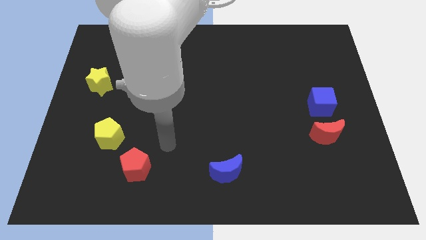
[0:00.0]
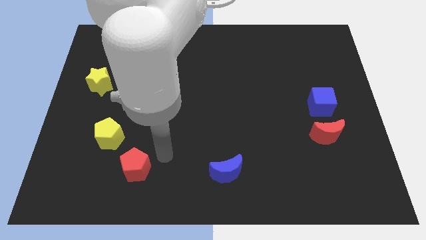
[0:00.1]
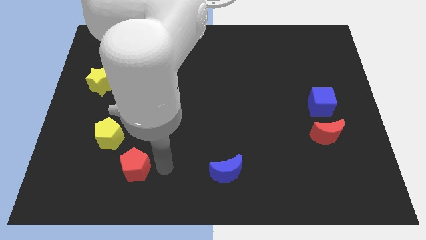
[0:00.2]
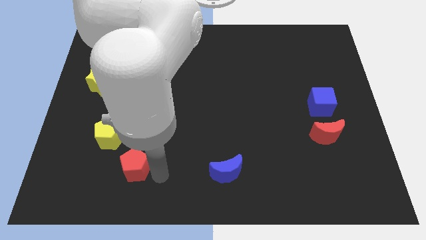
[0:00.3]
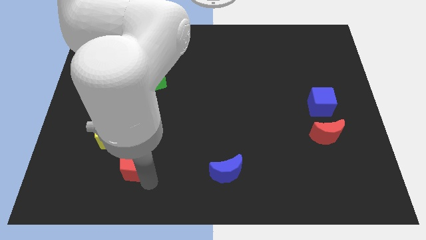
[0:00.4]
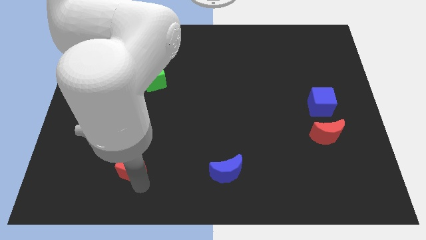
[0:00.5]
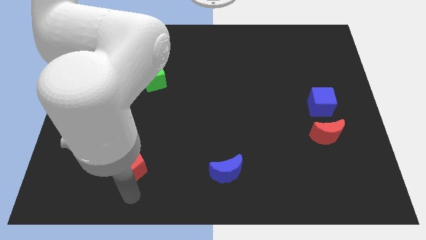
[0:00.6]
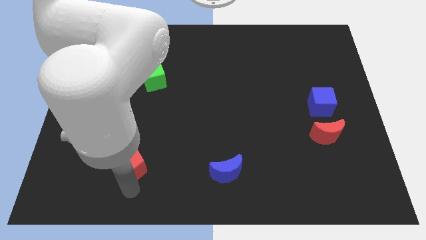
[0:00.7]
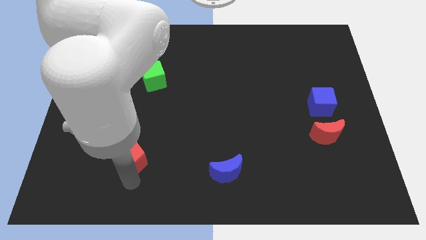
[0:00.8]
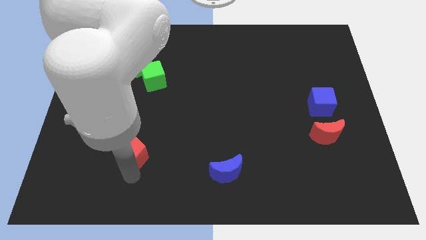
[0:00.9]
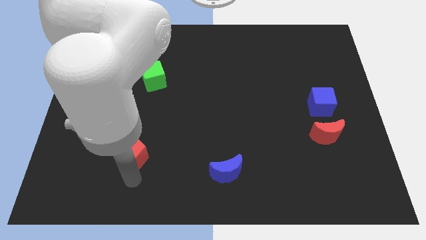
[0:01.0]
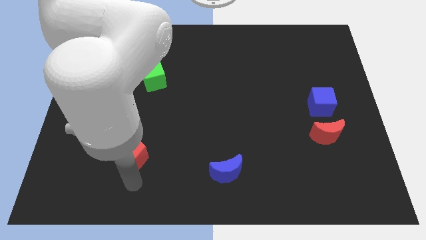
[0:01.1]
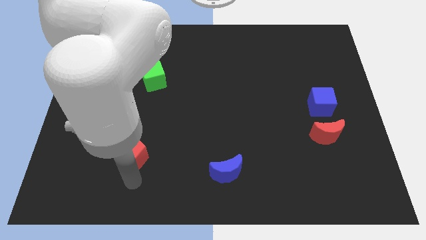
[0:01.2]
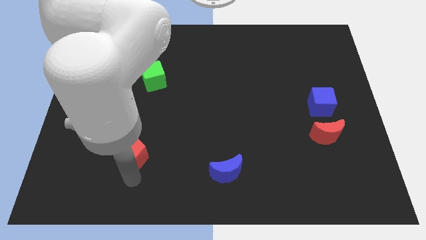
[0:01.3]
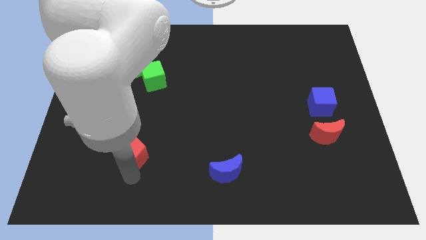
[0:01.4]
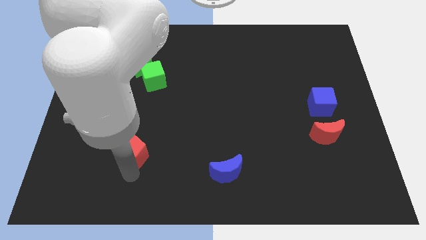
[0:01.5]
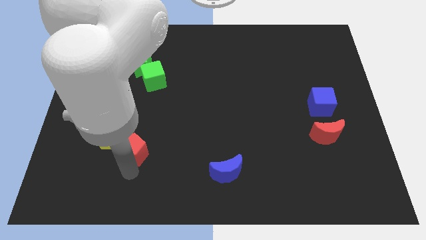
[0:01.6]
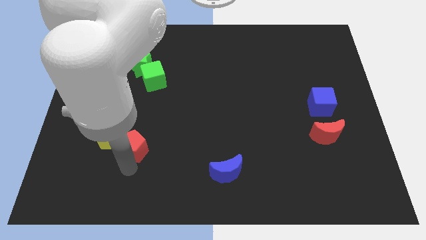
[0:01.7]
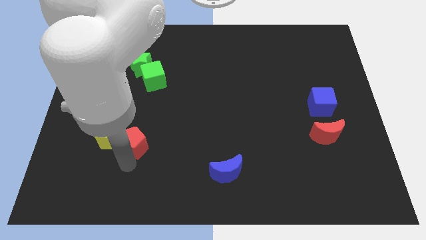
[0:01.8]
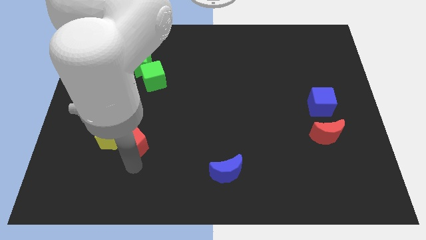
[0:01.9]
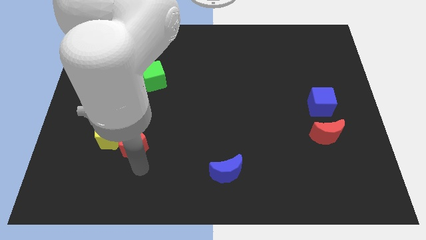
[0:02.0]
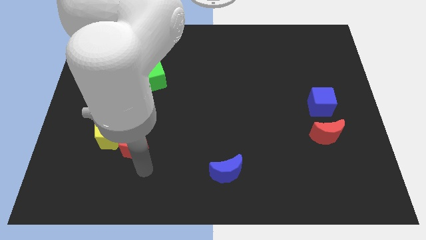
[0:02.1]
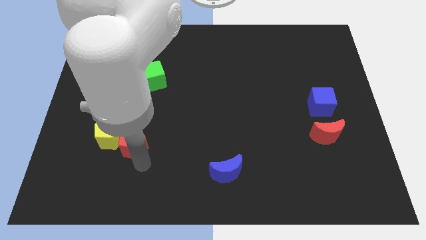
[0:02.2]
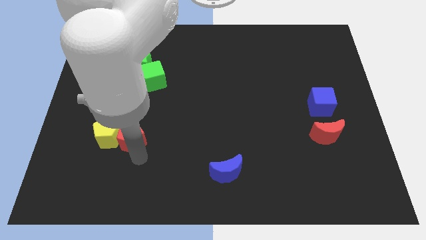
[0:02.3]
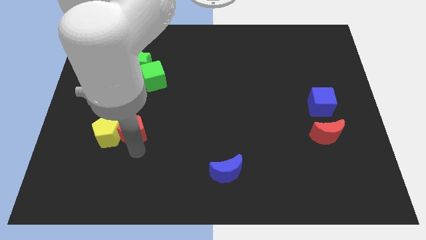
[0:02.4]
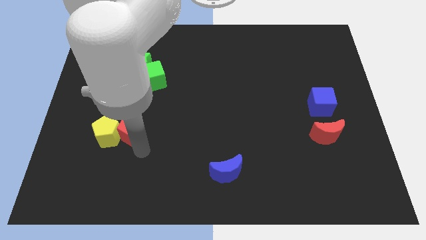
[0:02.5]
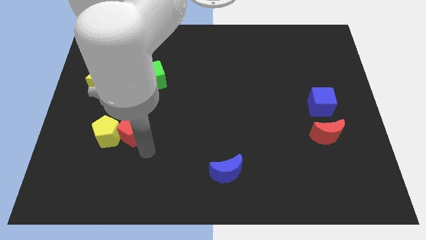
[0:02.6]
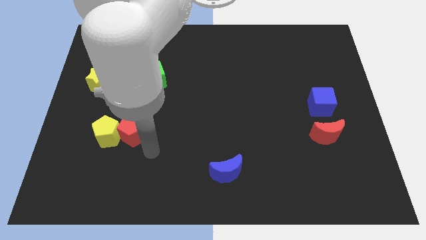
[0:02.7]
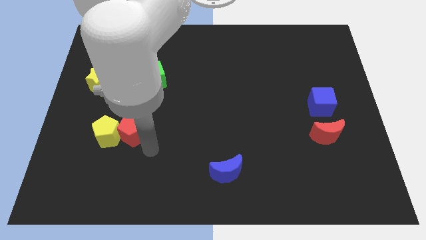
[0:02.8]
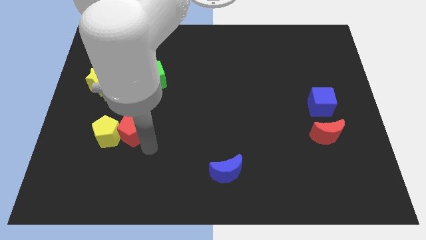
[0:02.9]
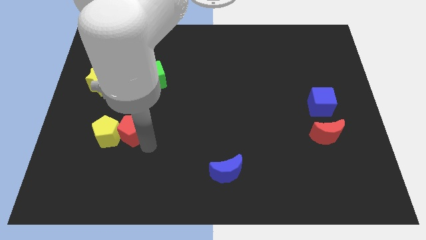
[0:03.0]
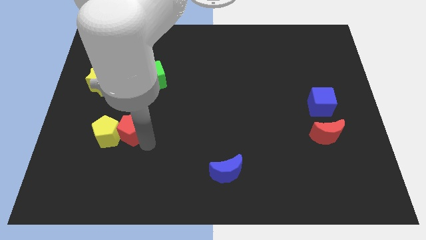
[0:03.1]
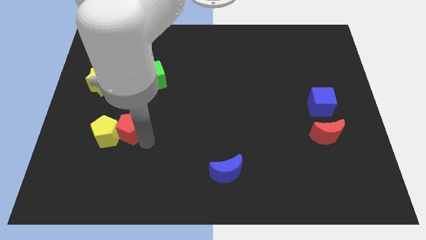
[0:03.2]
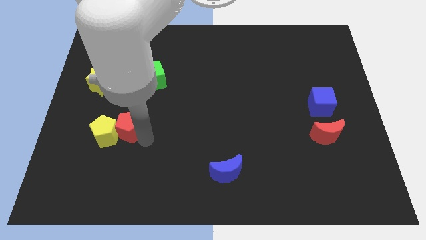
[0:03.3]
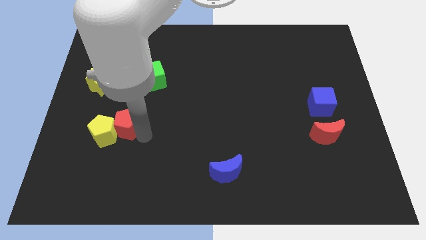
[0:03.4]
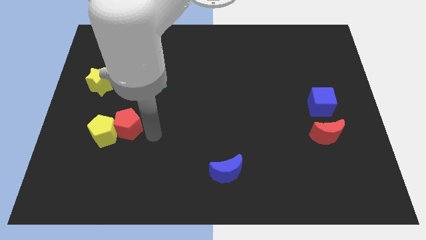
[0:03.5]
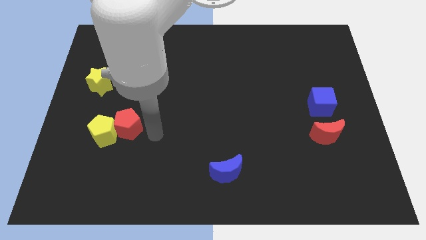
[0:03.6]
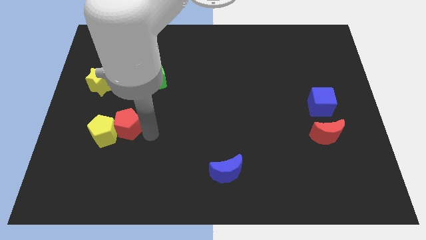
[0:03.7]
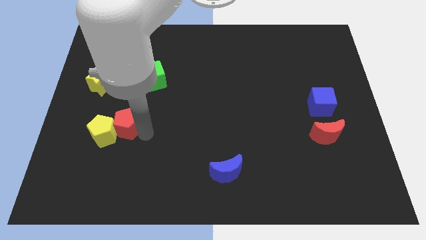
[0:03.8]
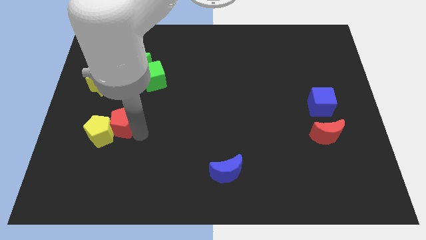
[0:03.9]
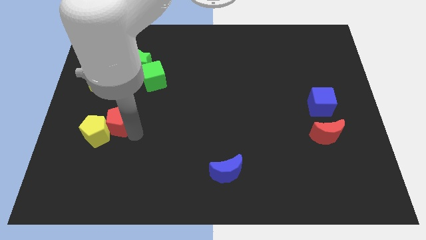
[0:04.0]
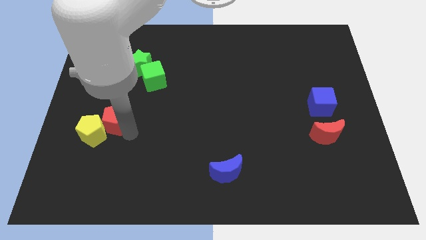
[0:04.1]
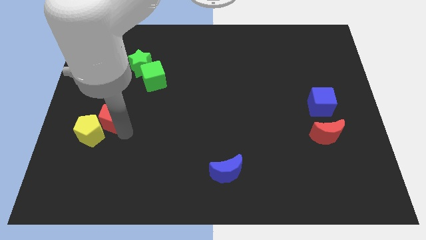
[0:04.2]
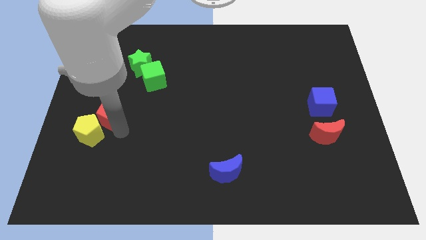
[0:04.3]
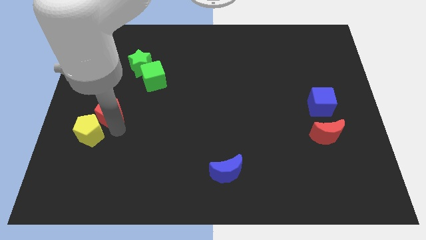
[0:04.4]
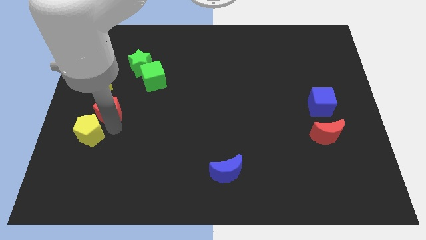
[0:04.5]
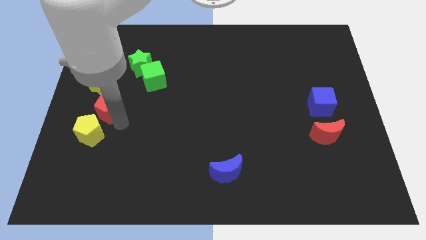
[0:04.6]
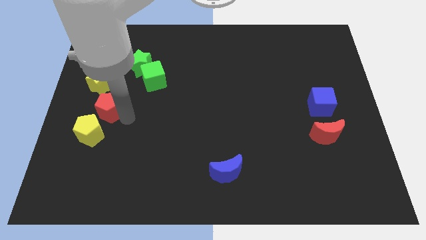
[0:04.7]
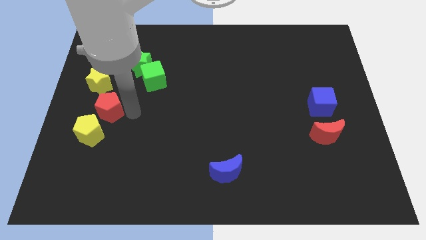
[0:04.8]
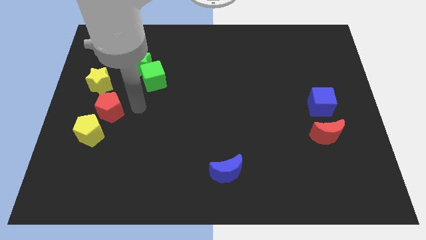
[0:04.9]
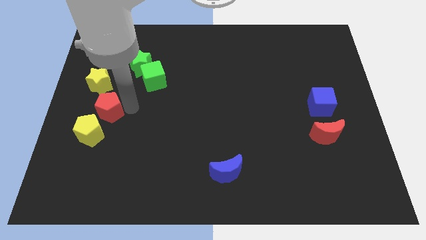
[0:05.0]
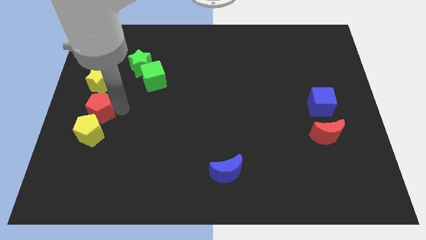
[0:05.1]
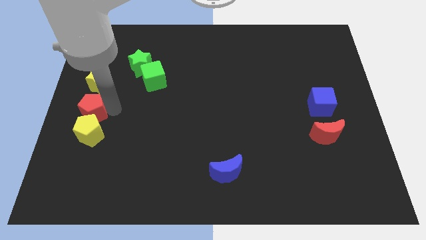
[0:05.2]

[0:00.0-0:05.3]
slide the red pentagon to the top left side of the yellow pentagon

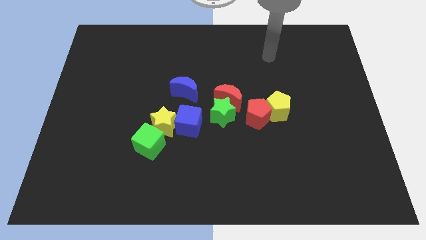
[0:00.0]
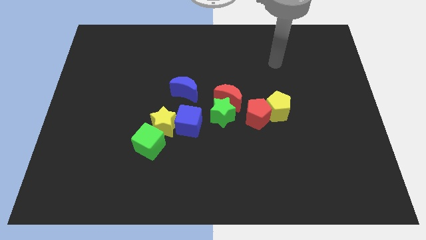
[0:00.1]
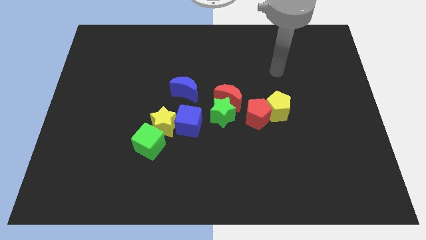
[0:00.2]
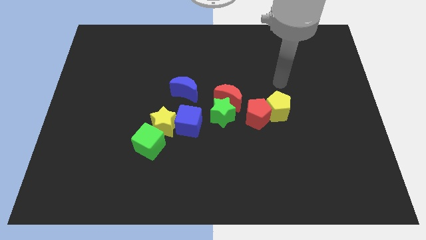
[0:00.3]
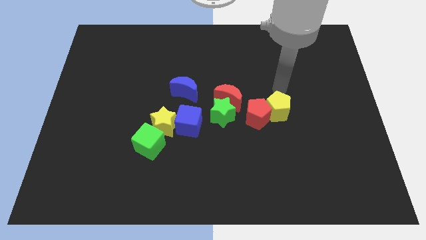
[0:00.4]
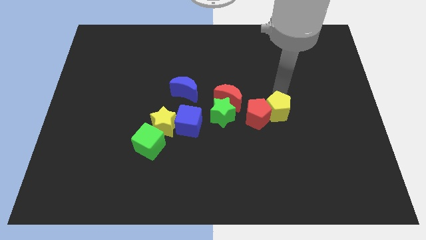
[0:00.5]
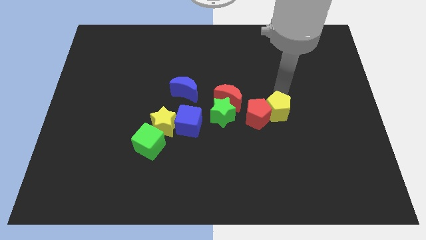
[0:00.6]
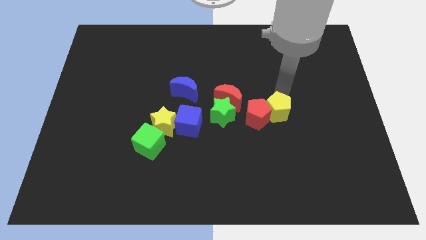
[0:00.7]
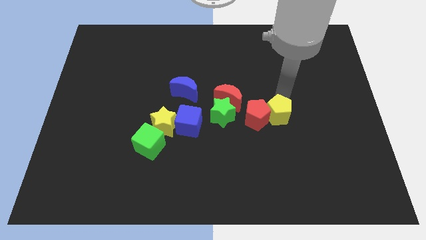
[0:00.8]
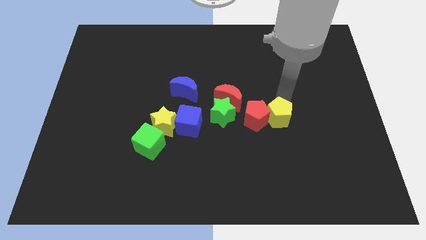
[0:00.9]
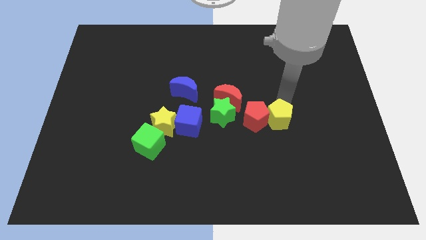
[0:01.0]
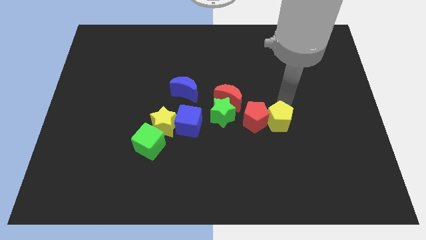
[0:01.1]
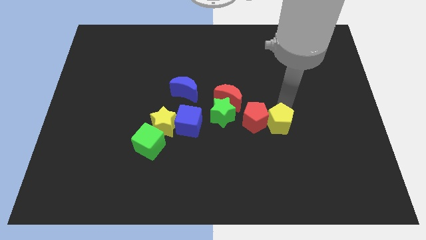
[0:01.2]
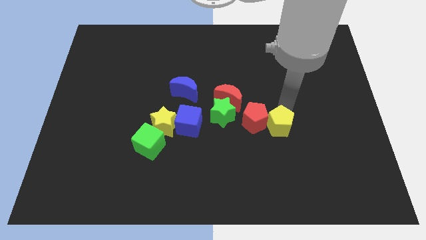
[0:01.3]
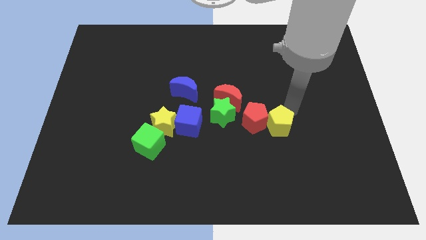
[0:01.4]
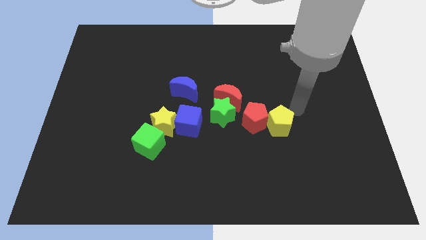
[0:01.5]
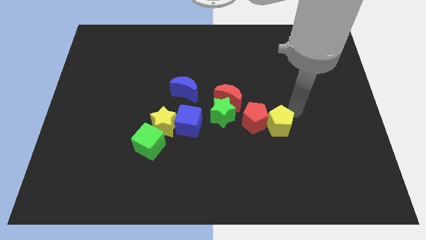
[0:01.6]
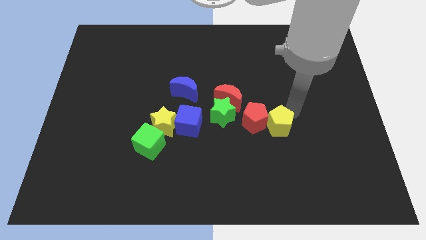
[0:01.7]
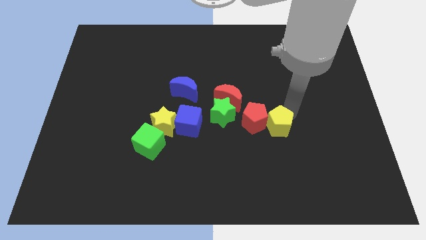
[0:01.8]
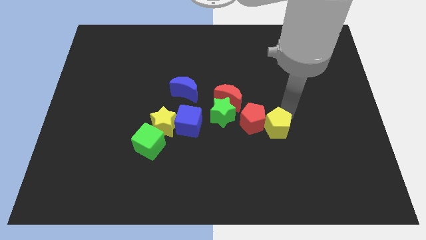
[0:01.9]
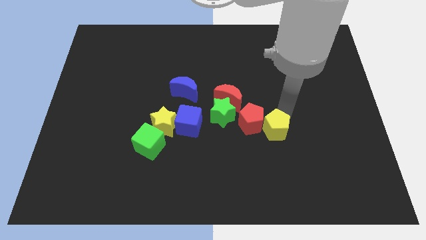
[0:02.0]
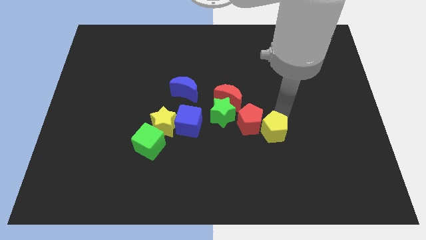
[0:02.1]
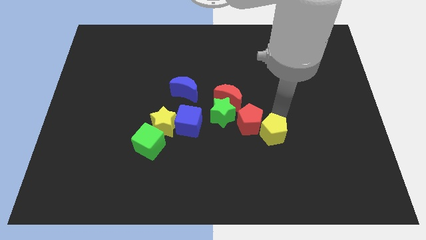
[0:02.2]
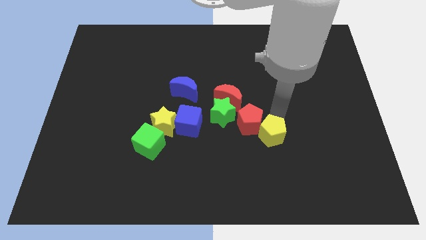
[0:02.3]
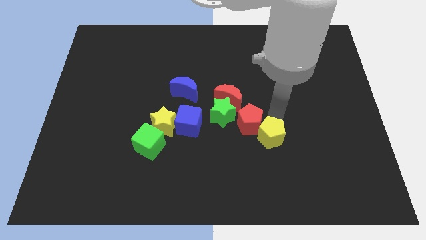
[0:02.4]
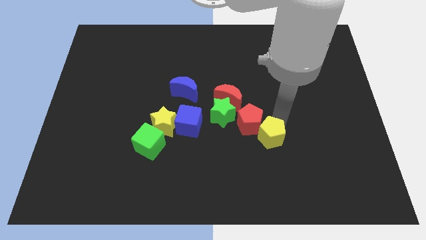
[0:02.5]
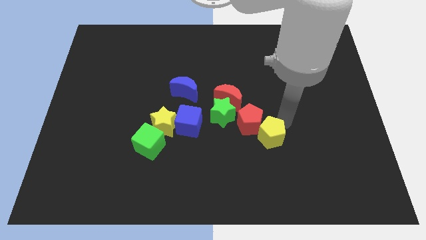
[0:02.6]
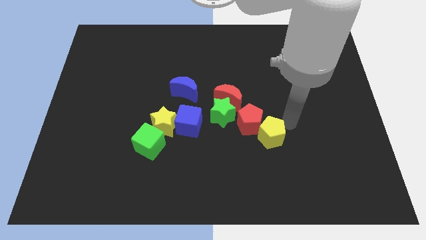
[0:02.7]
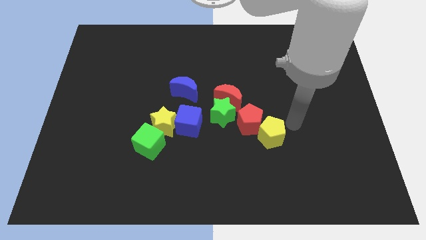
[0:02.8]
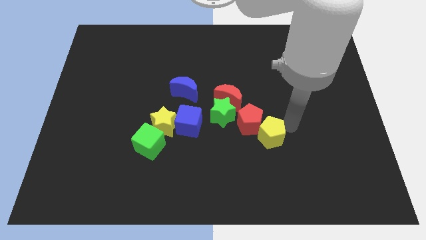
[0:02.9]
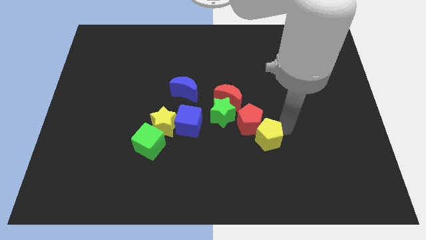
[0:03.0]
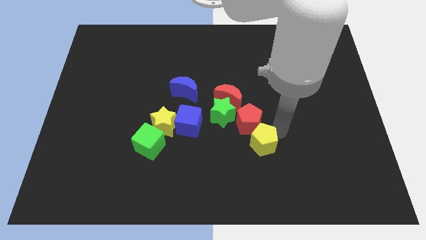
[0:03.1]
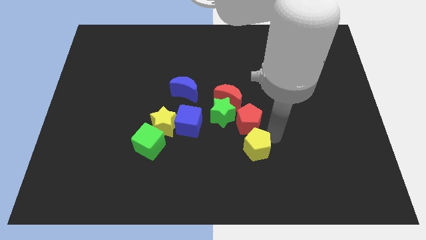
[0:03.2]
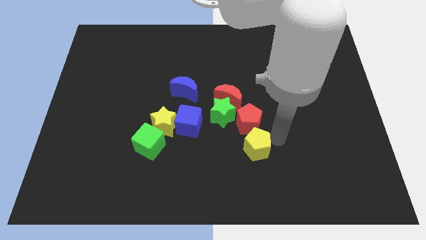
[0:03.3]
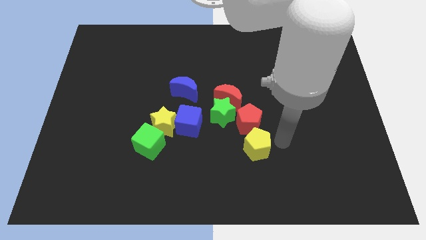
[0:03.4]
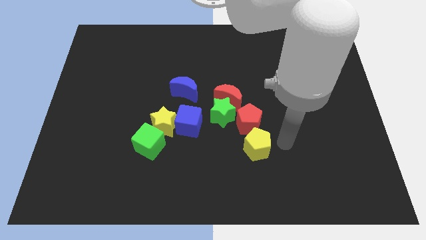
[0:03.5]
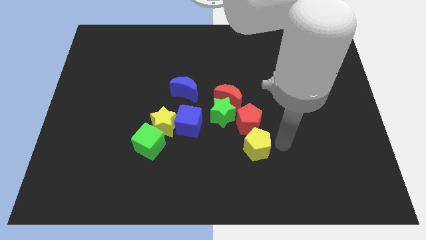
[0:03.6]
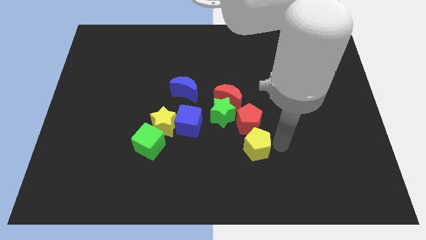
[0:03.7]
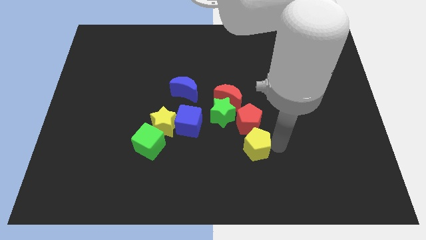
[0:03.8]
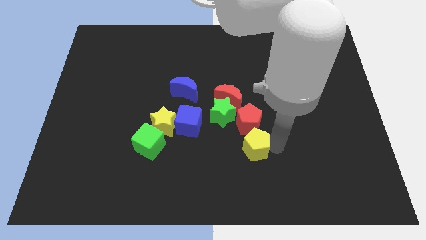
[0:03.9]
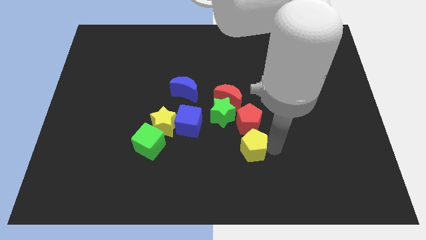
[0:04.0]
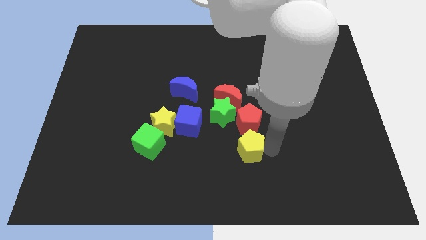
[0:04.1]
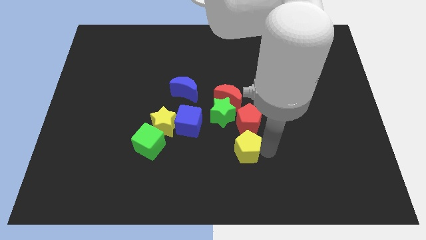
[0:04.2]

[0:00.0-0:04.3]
put the yellow pentagon to the bottom of the green star
